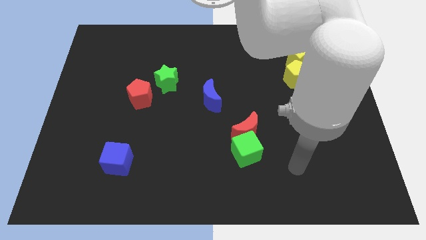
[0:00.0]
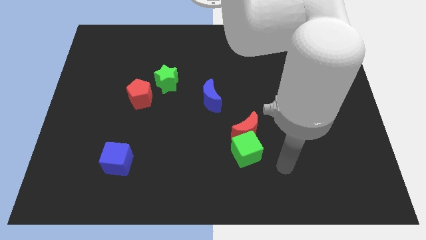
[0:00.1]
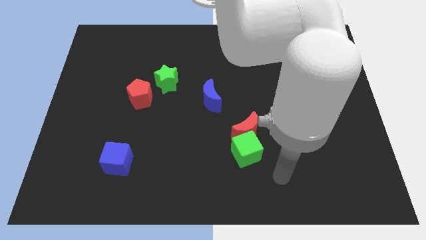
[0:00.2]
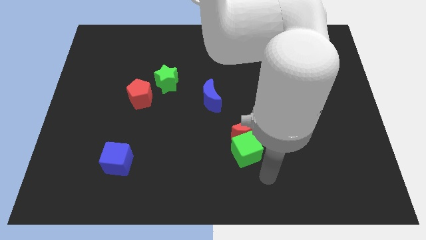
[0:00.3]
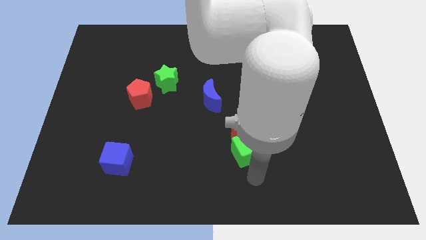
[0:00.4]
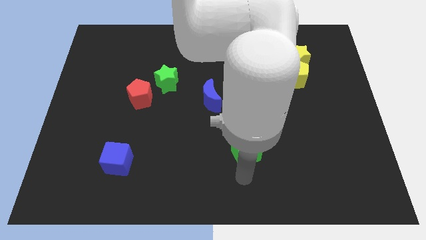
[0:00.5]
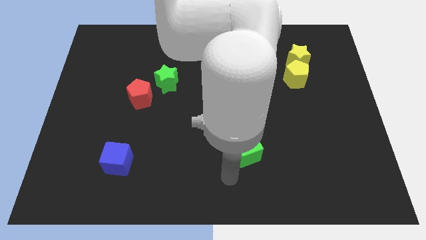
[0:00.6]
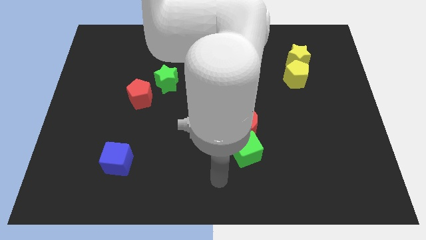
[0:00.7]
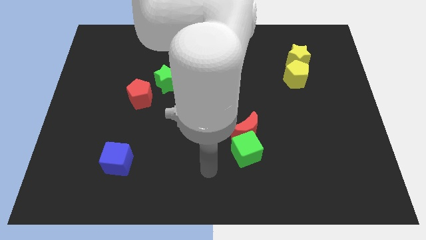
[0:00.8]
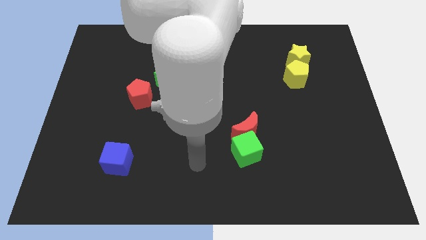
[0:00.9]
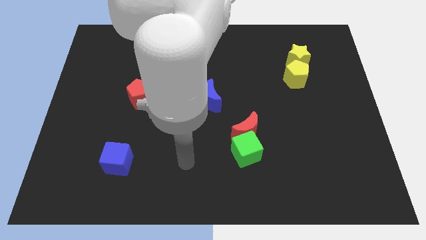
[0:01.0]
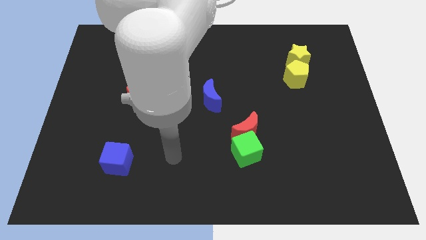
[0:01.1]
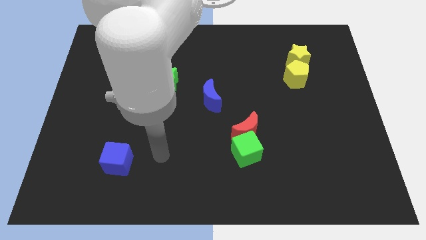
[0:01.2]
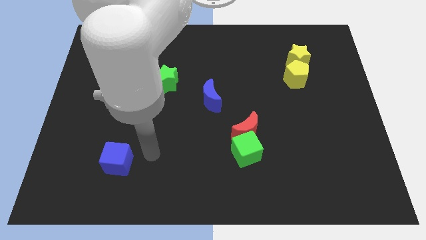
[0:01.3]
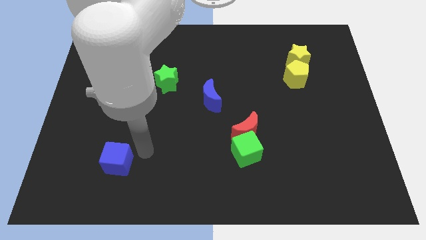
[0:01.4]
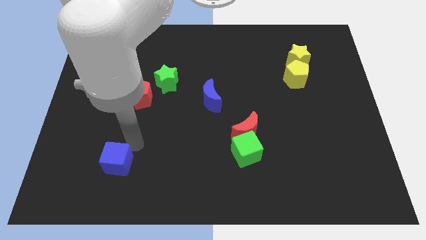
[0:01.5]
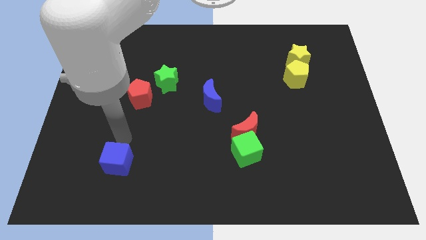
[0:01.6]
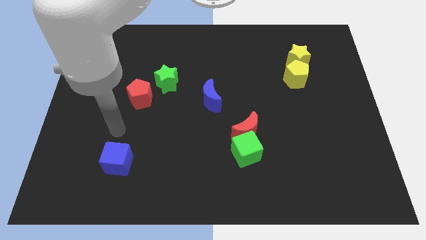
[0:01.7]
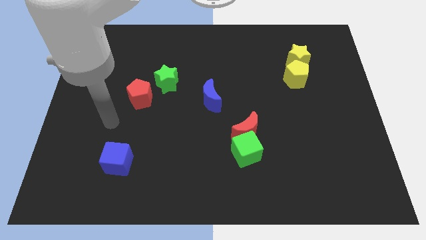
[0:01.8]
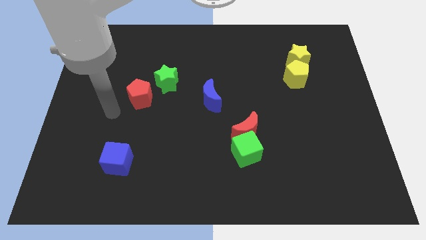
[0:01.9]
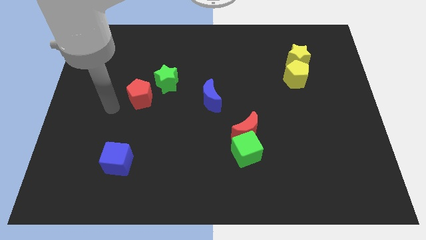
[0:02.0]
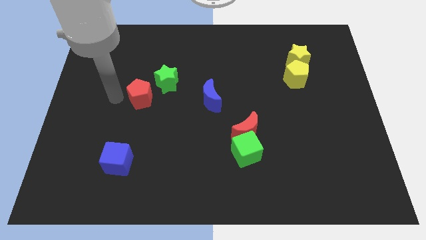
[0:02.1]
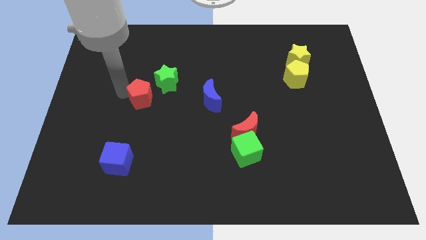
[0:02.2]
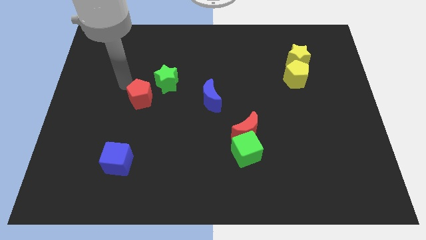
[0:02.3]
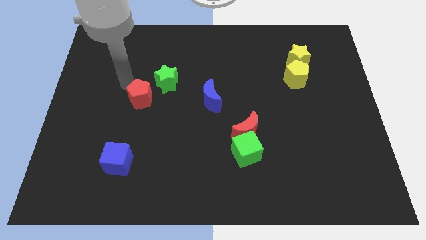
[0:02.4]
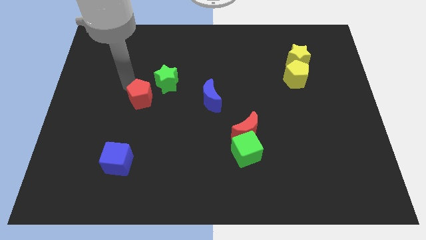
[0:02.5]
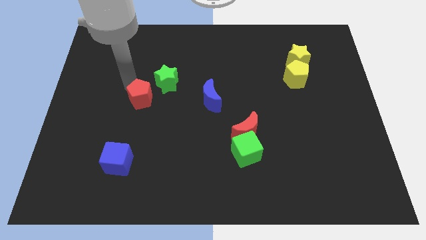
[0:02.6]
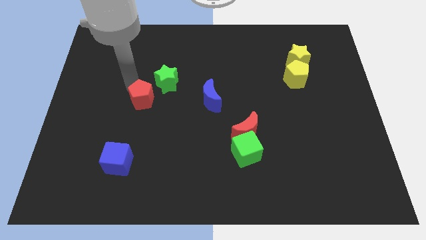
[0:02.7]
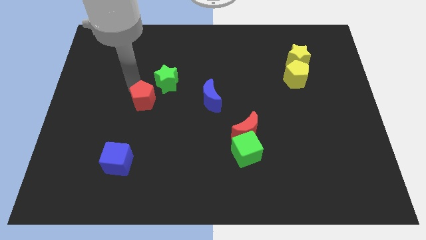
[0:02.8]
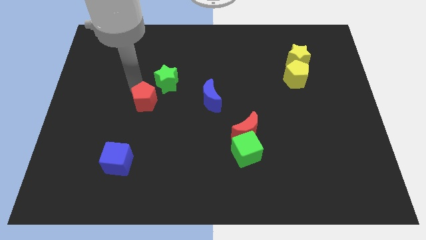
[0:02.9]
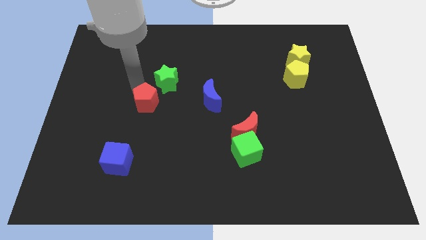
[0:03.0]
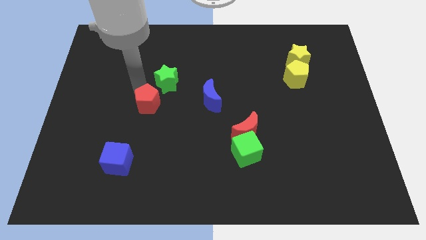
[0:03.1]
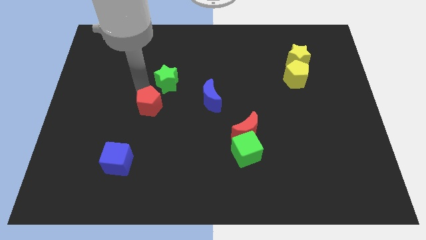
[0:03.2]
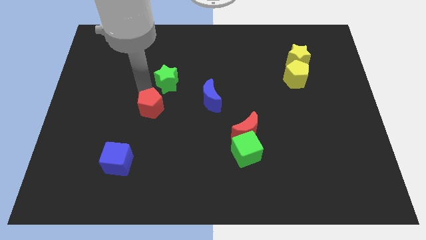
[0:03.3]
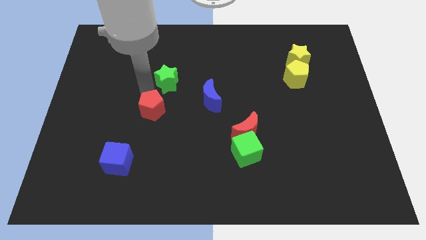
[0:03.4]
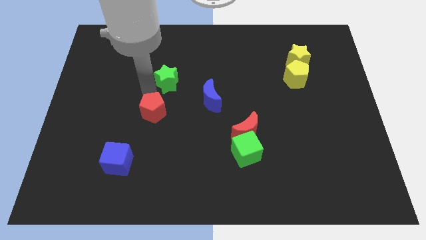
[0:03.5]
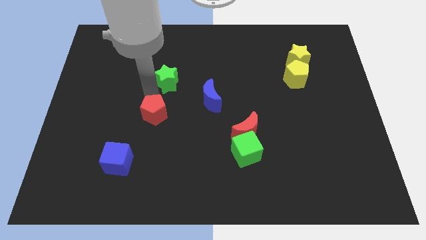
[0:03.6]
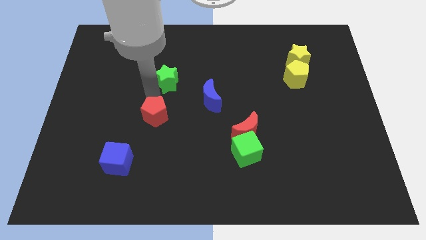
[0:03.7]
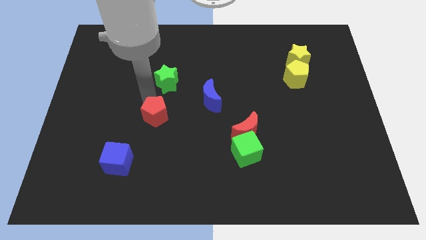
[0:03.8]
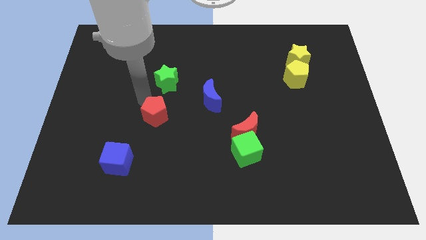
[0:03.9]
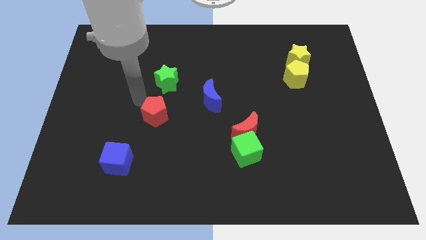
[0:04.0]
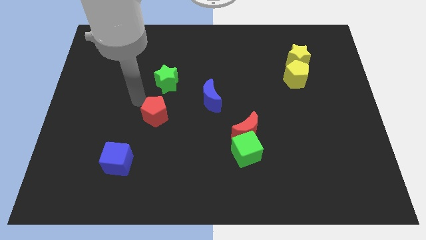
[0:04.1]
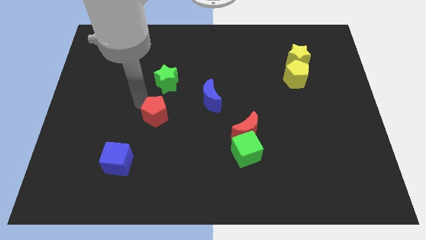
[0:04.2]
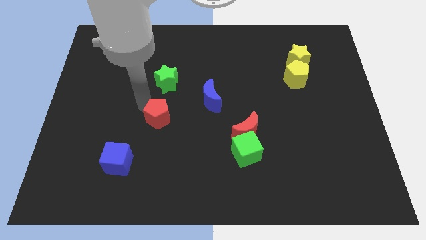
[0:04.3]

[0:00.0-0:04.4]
slightly push the red pentagon diagonally downwards and to the right

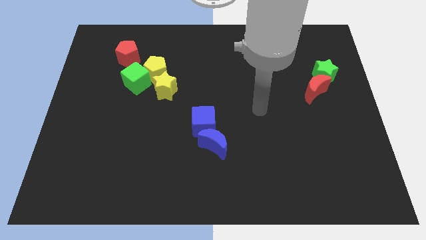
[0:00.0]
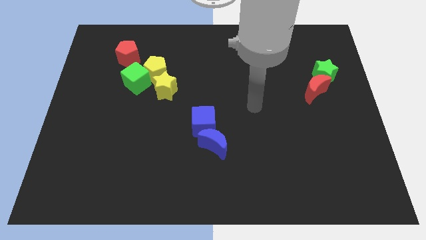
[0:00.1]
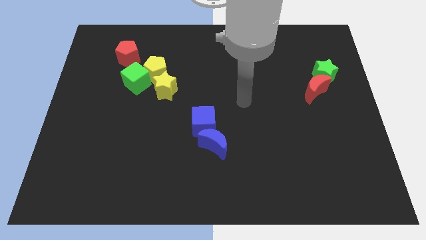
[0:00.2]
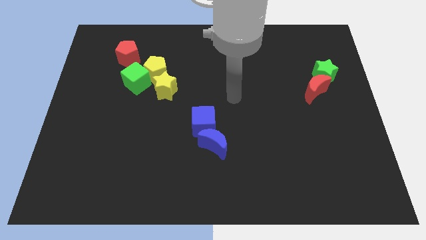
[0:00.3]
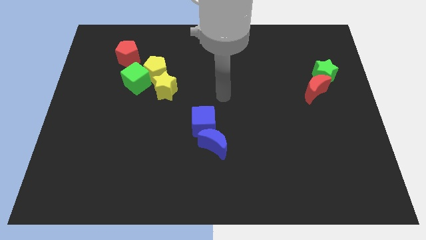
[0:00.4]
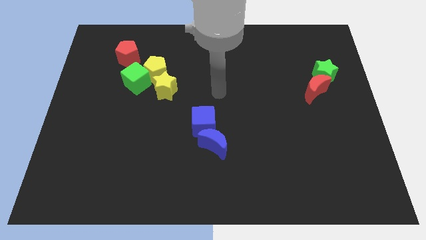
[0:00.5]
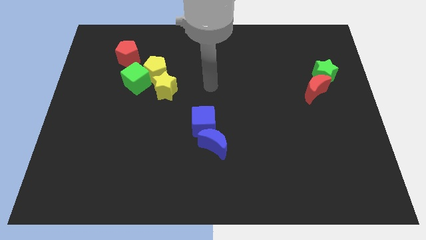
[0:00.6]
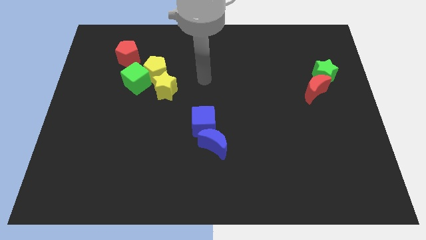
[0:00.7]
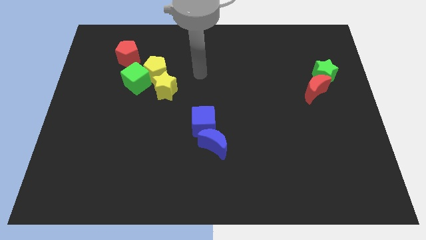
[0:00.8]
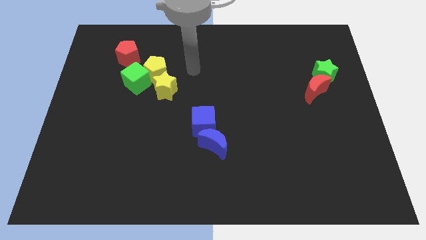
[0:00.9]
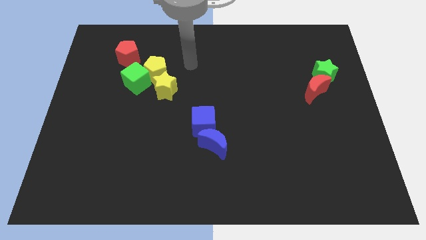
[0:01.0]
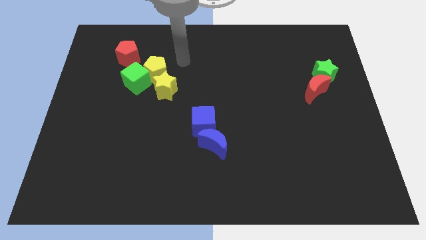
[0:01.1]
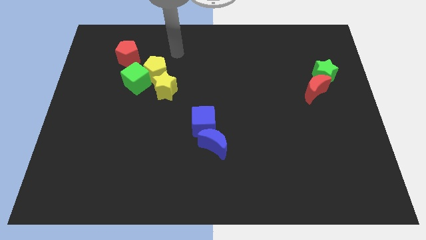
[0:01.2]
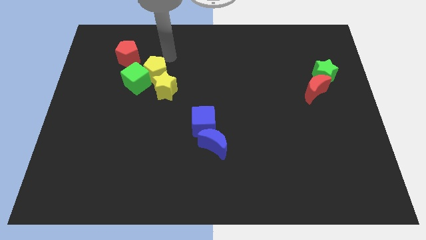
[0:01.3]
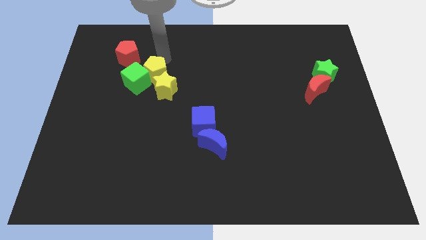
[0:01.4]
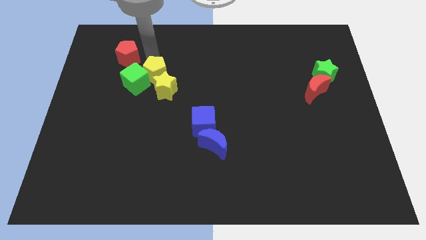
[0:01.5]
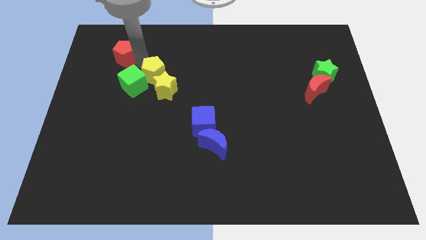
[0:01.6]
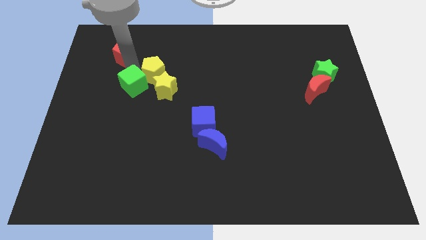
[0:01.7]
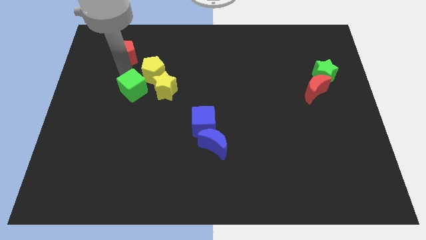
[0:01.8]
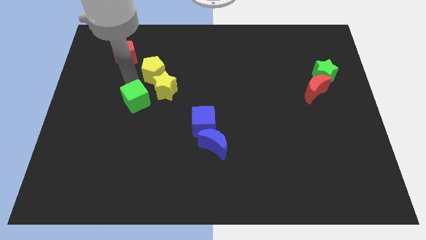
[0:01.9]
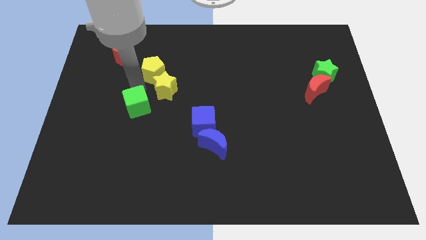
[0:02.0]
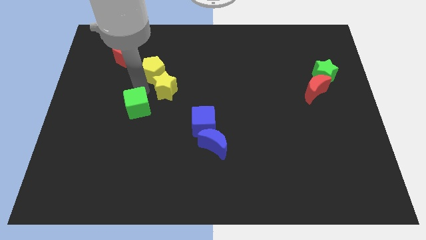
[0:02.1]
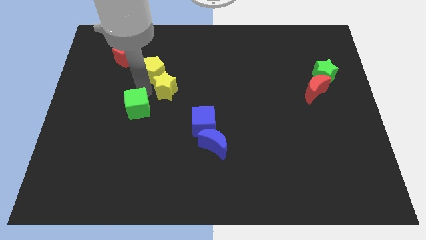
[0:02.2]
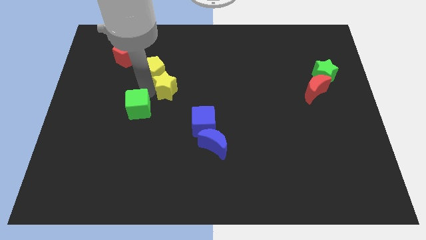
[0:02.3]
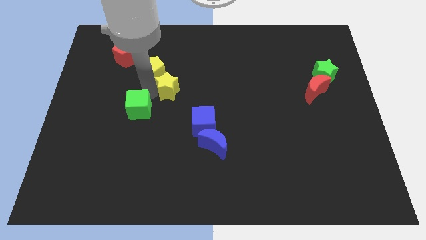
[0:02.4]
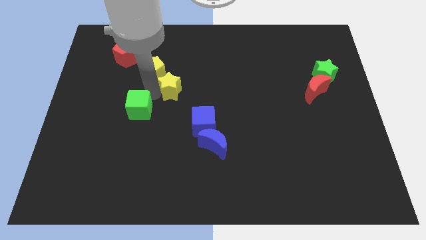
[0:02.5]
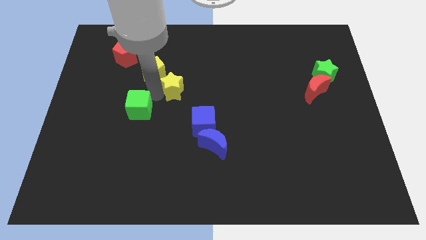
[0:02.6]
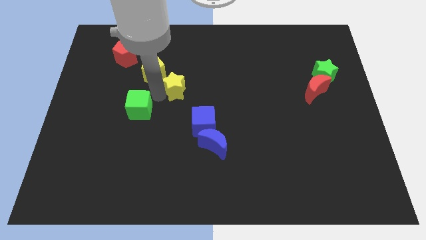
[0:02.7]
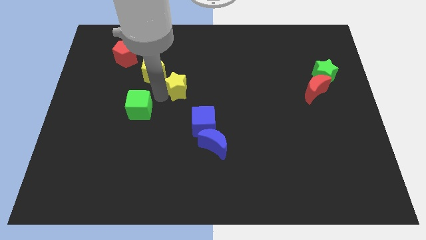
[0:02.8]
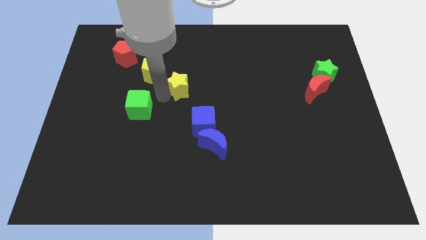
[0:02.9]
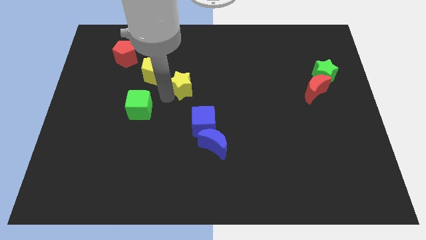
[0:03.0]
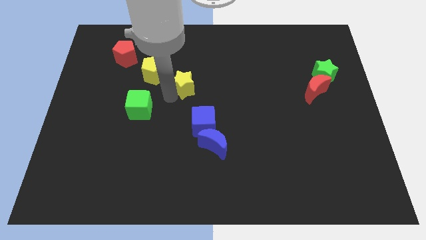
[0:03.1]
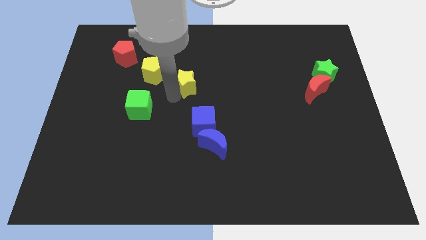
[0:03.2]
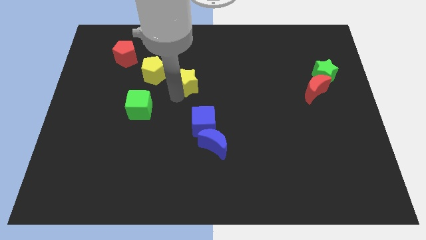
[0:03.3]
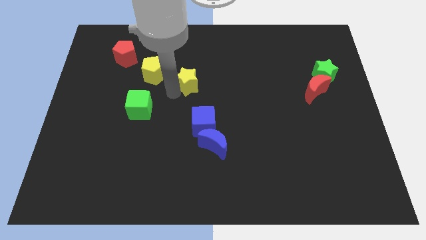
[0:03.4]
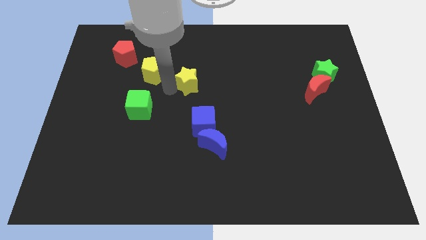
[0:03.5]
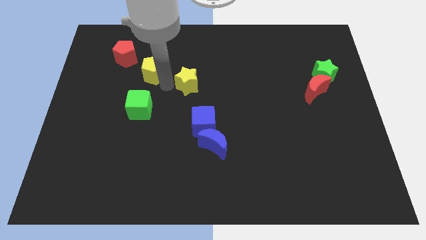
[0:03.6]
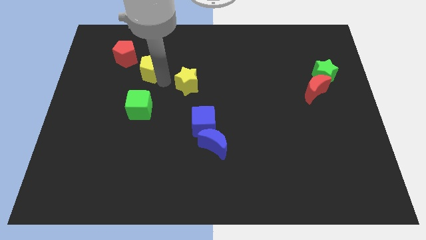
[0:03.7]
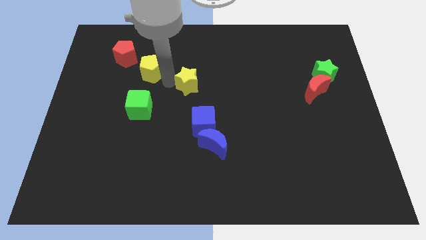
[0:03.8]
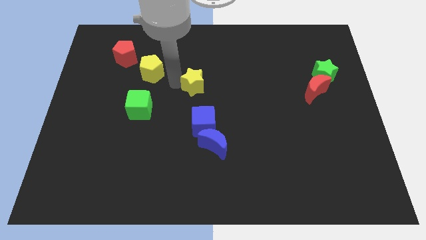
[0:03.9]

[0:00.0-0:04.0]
slide the yellow star right somewhat
